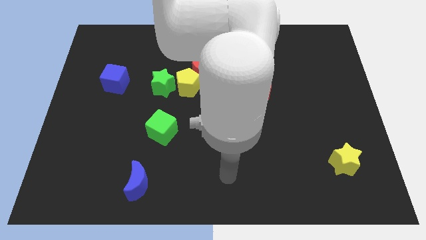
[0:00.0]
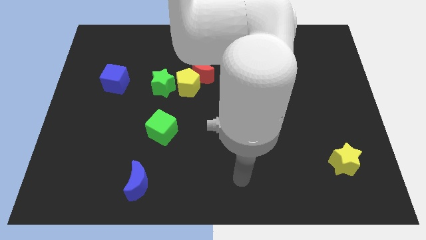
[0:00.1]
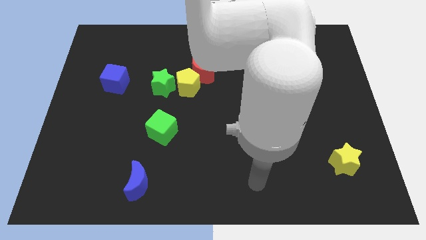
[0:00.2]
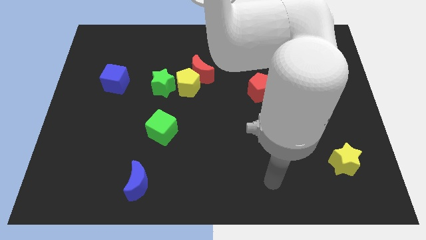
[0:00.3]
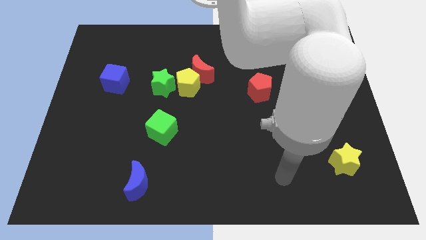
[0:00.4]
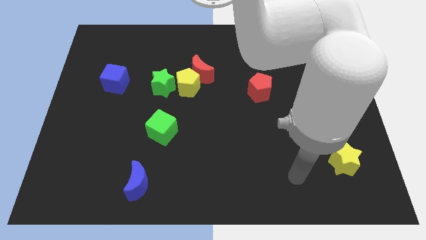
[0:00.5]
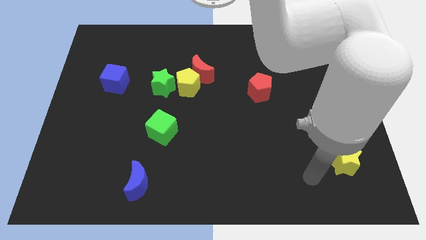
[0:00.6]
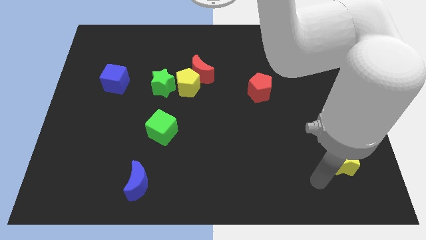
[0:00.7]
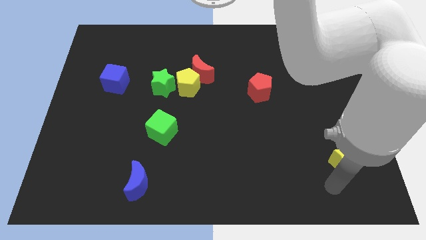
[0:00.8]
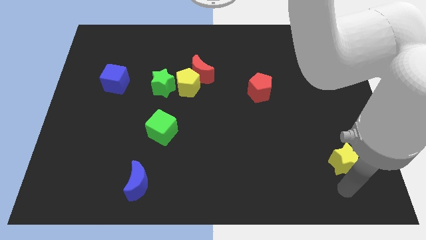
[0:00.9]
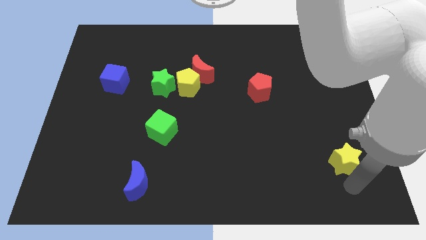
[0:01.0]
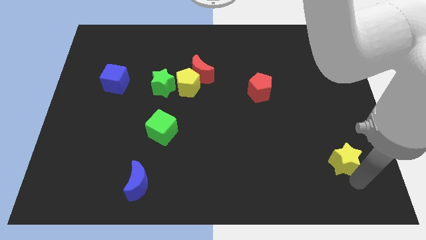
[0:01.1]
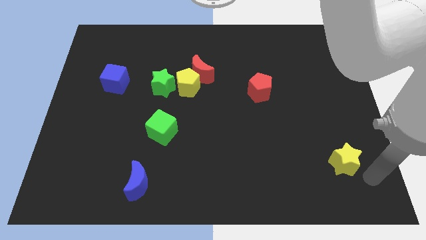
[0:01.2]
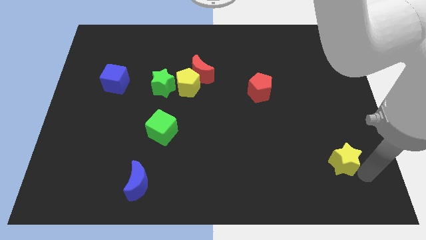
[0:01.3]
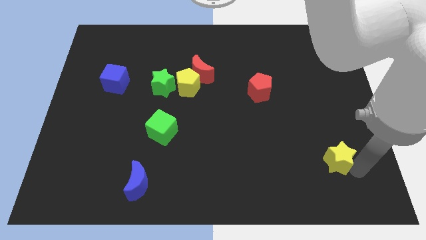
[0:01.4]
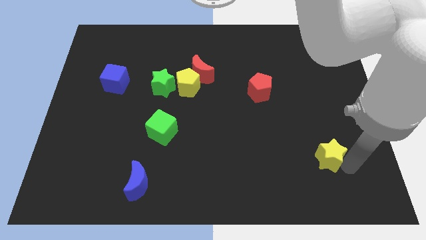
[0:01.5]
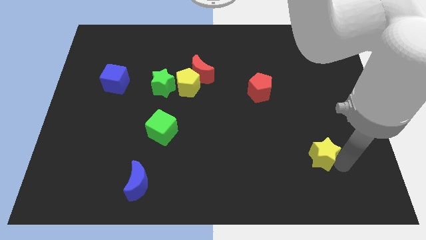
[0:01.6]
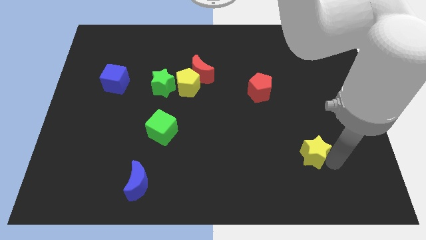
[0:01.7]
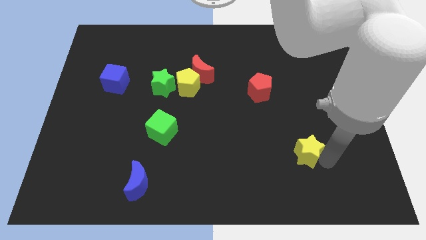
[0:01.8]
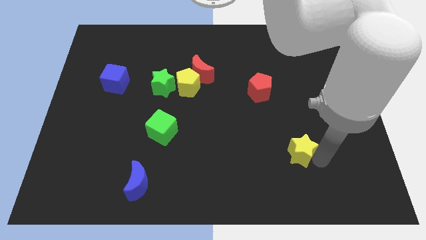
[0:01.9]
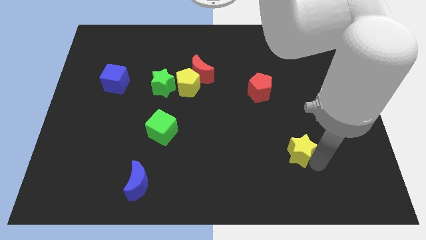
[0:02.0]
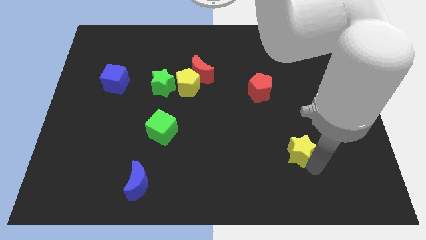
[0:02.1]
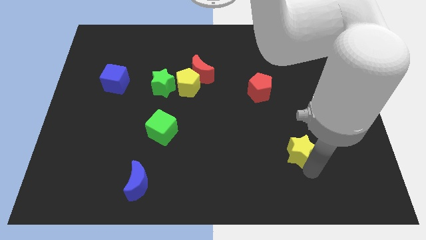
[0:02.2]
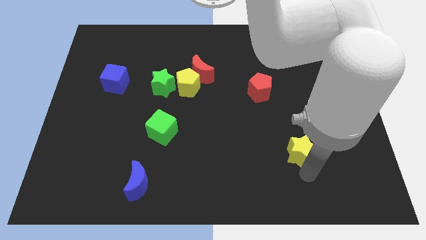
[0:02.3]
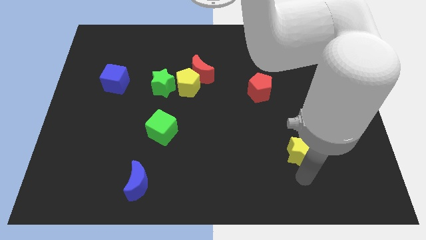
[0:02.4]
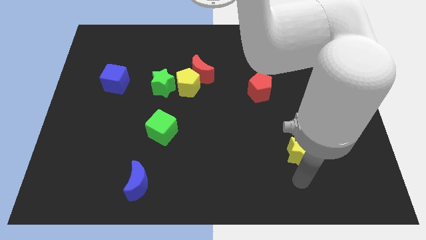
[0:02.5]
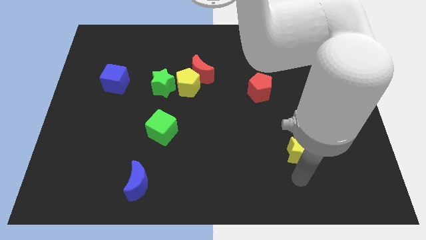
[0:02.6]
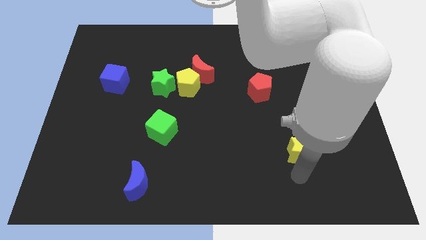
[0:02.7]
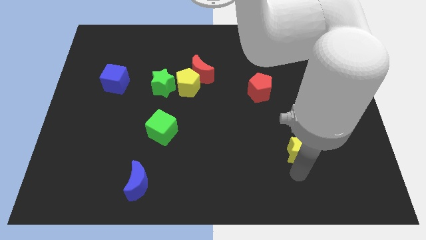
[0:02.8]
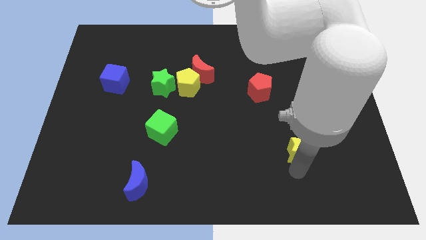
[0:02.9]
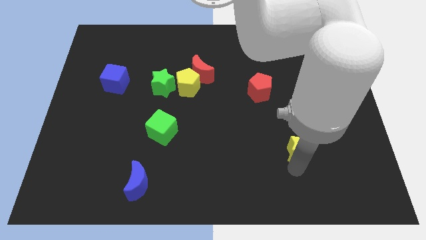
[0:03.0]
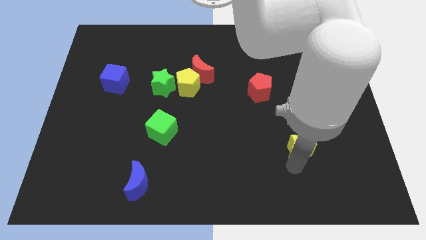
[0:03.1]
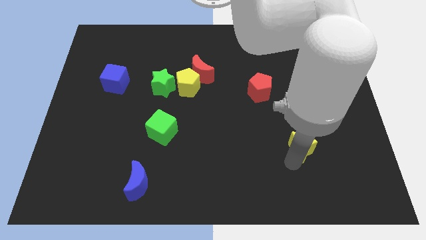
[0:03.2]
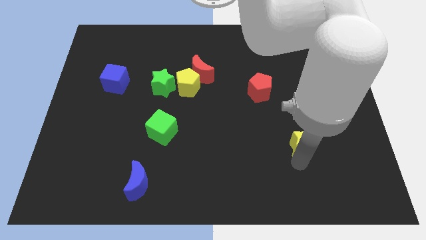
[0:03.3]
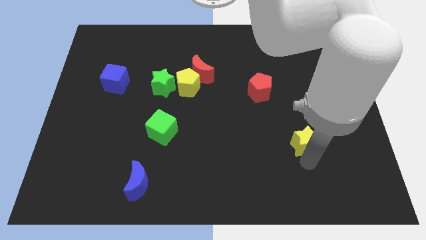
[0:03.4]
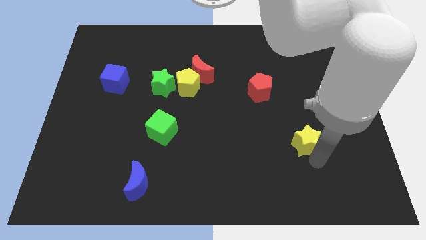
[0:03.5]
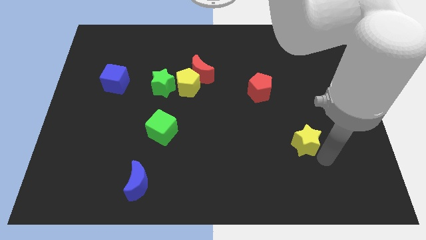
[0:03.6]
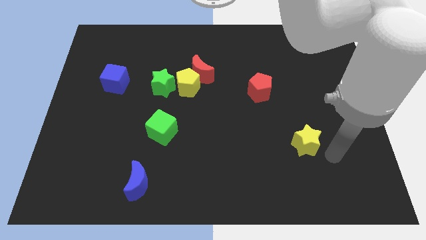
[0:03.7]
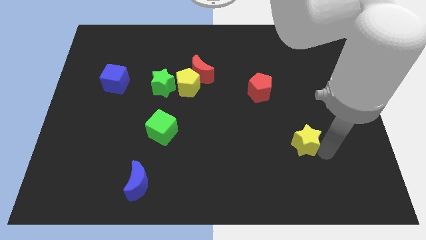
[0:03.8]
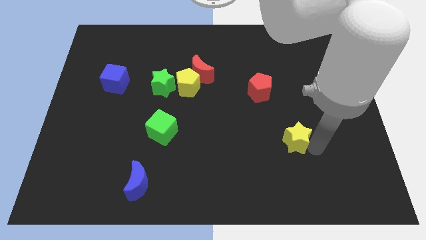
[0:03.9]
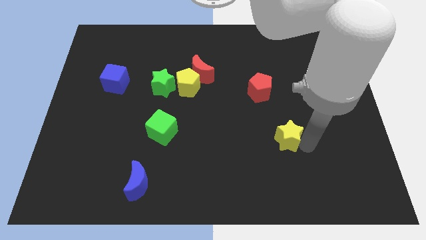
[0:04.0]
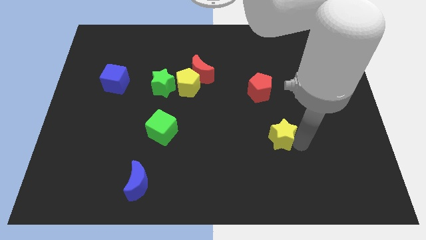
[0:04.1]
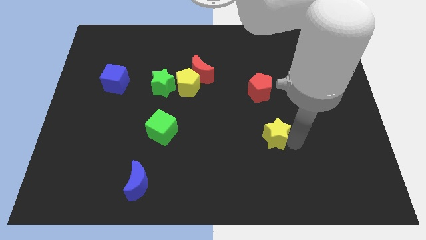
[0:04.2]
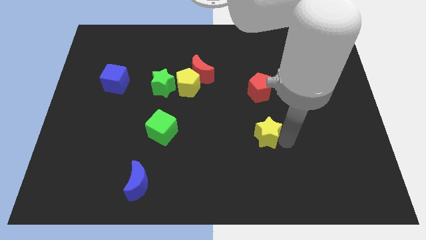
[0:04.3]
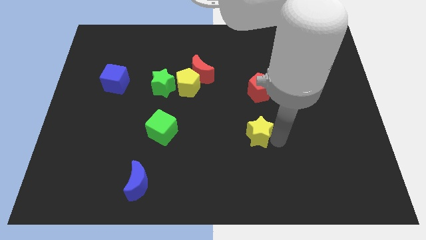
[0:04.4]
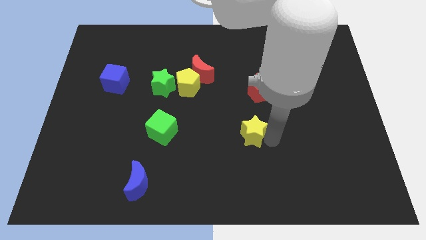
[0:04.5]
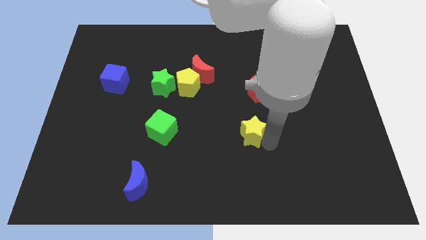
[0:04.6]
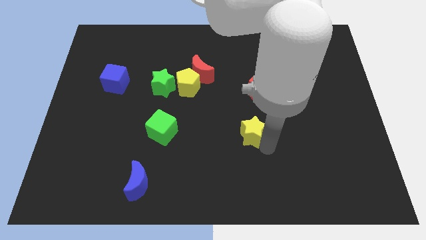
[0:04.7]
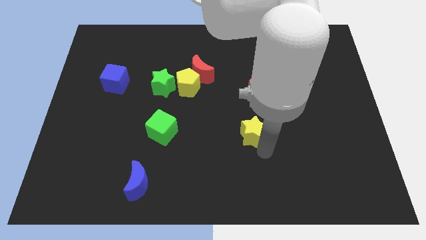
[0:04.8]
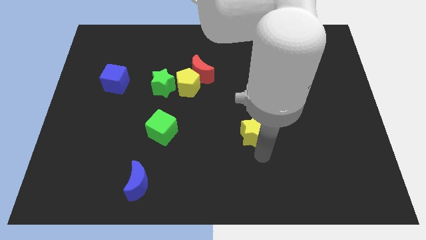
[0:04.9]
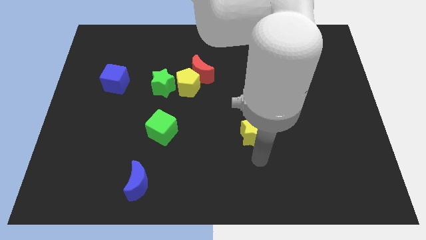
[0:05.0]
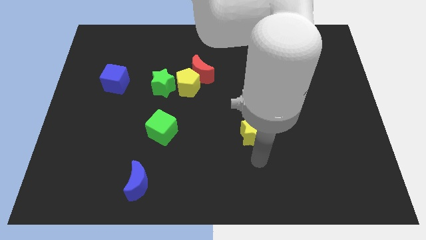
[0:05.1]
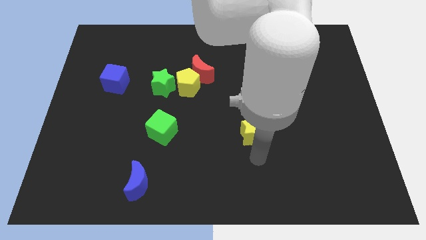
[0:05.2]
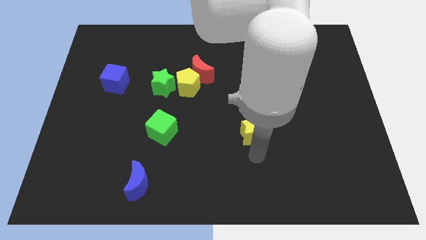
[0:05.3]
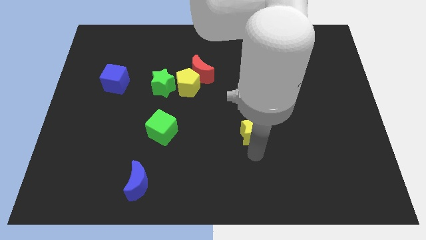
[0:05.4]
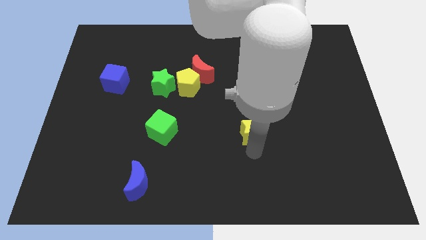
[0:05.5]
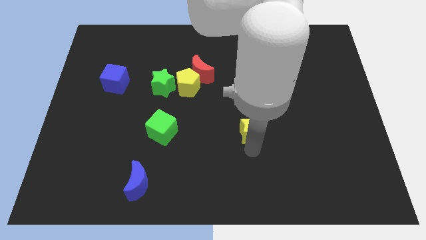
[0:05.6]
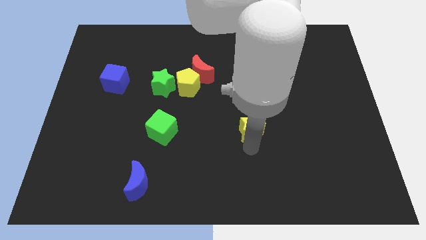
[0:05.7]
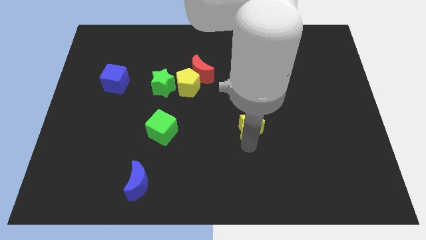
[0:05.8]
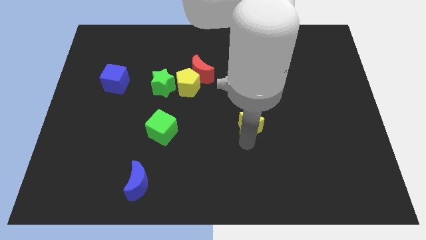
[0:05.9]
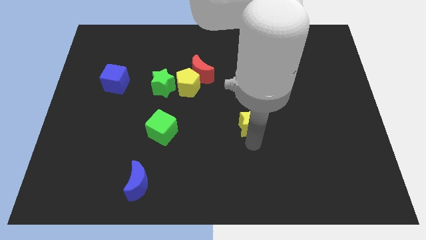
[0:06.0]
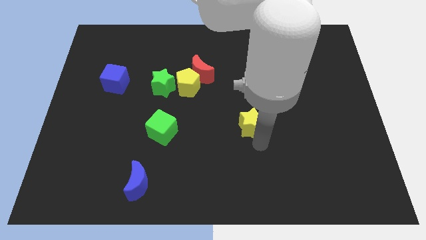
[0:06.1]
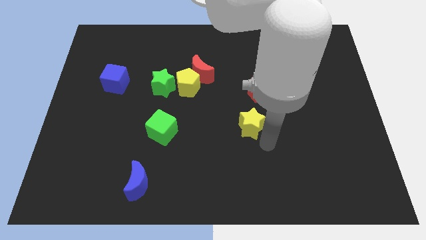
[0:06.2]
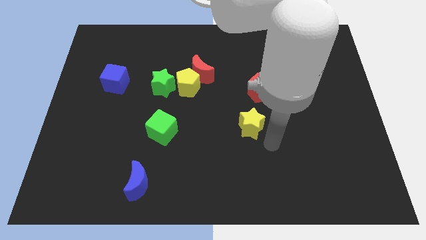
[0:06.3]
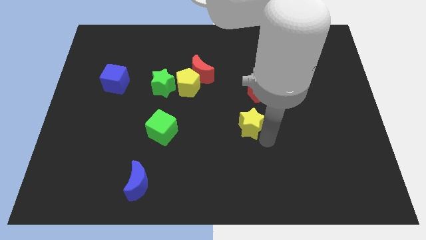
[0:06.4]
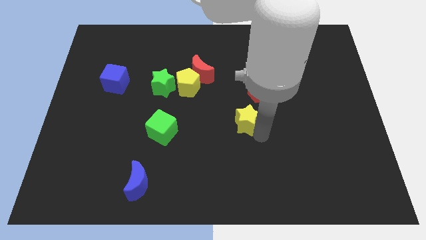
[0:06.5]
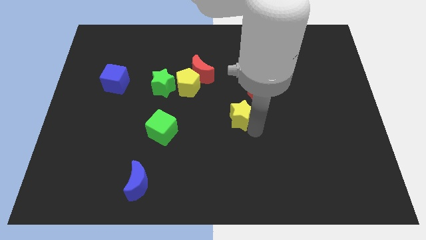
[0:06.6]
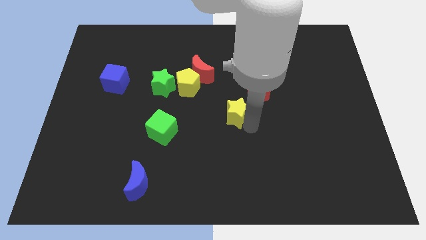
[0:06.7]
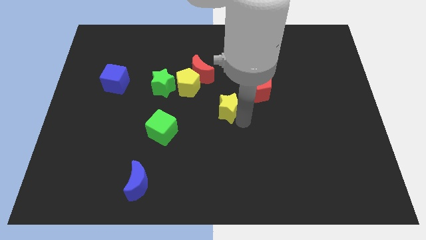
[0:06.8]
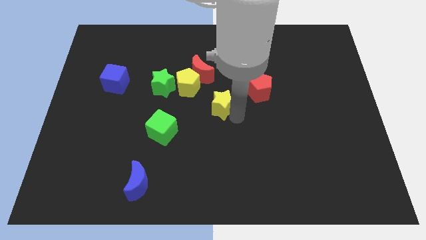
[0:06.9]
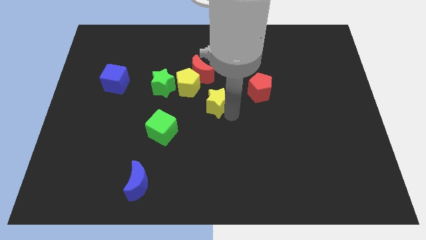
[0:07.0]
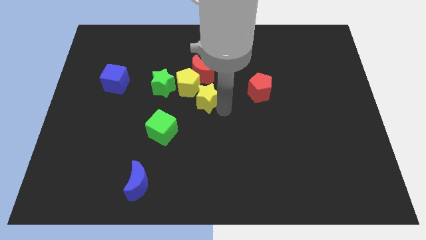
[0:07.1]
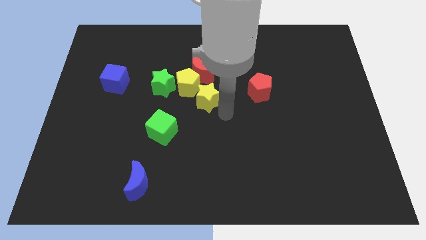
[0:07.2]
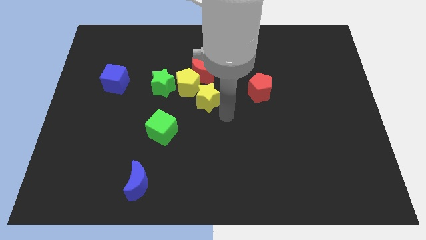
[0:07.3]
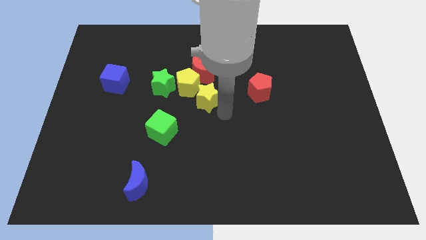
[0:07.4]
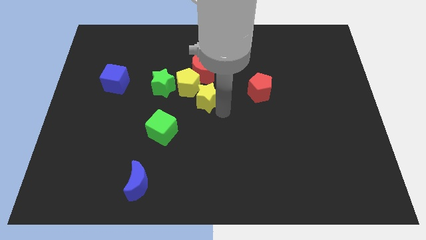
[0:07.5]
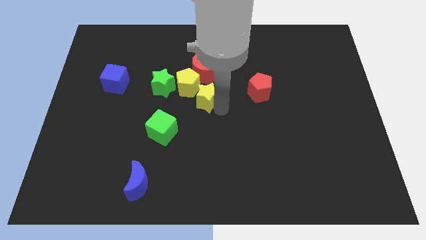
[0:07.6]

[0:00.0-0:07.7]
put the yellow star close to the yellow pentagon
